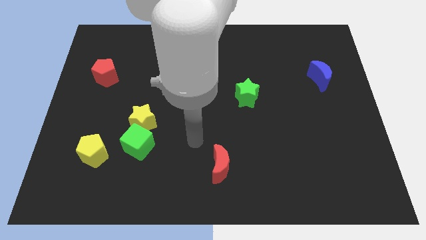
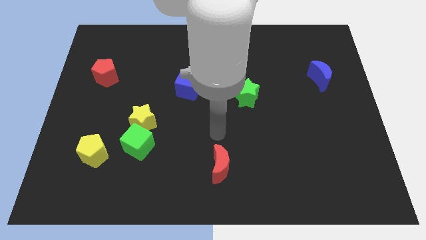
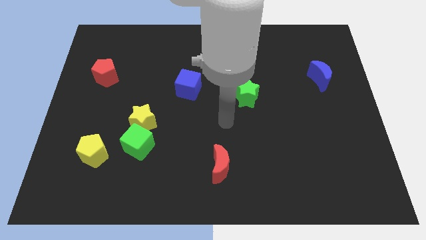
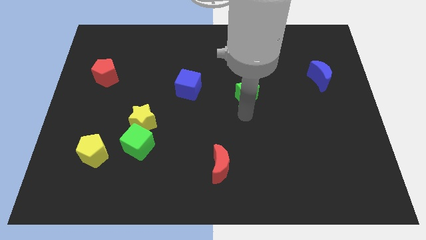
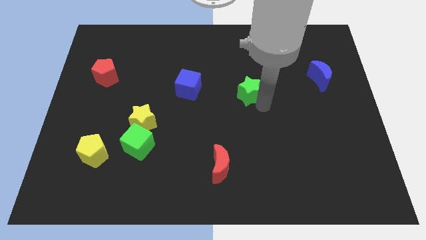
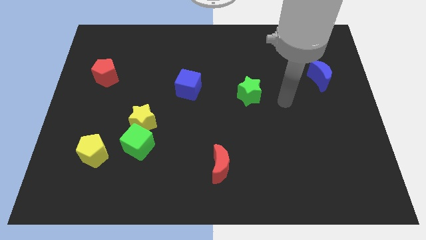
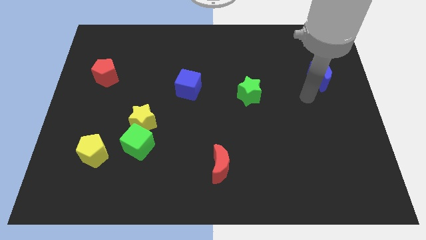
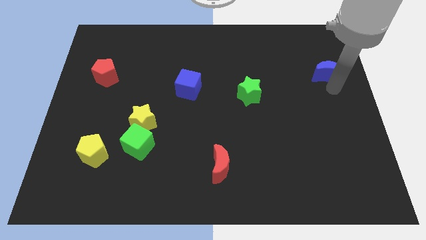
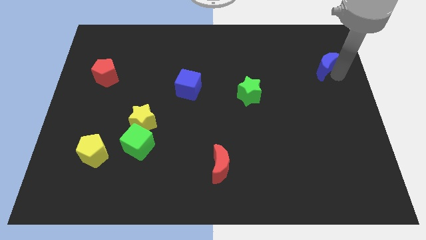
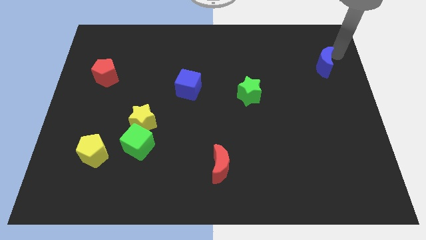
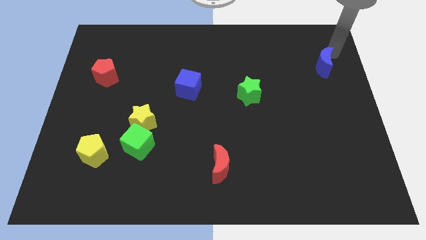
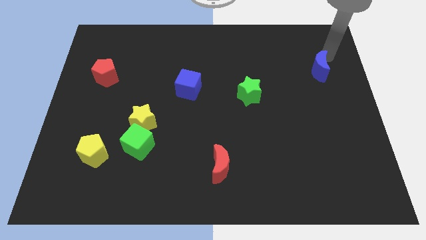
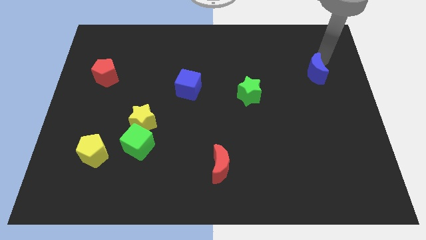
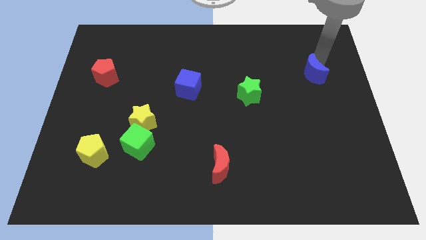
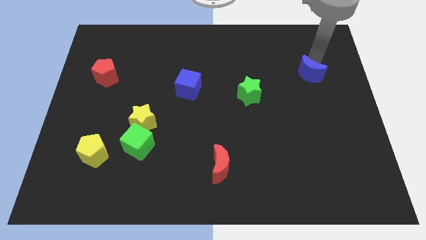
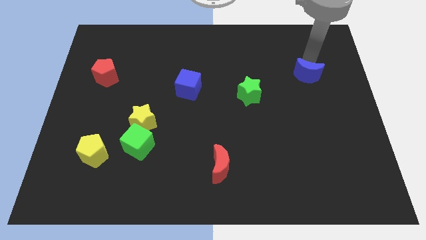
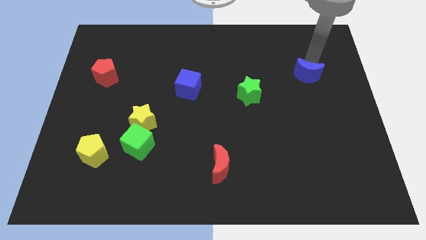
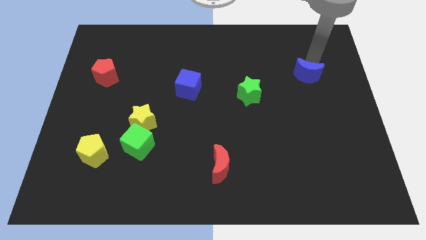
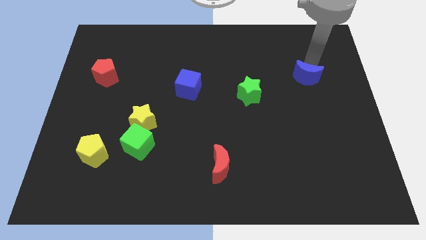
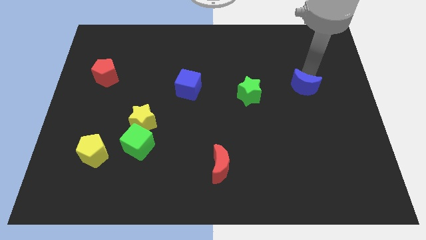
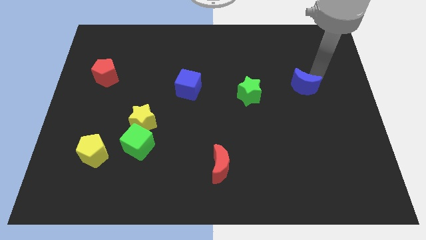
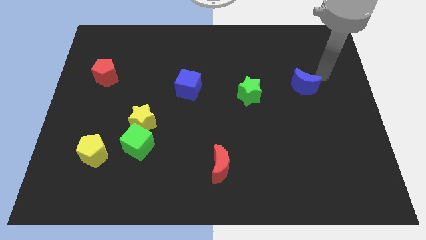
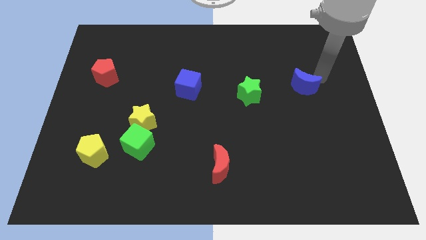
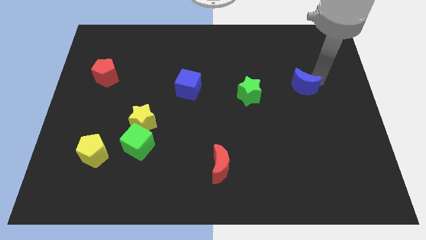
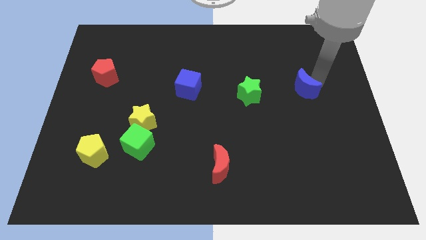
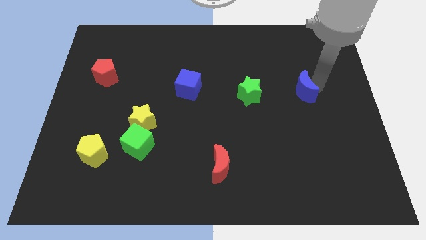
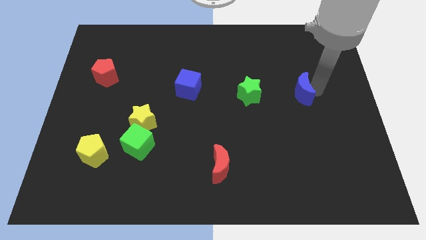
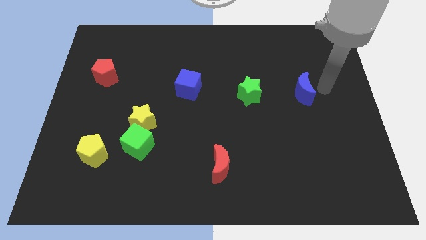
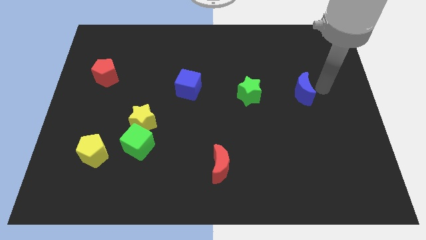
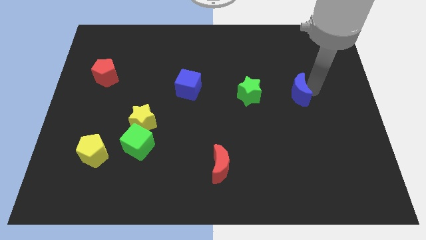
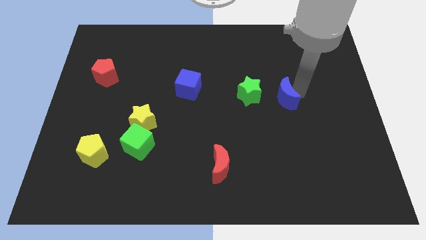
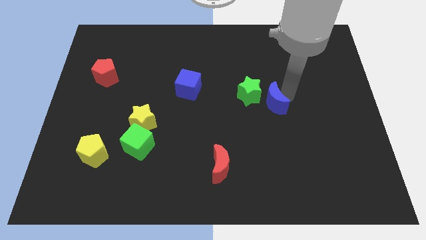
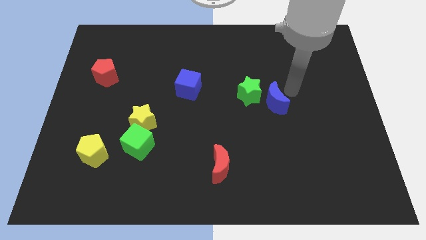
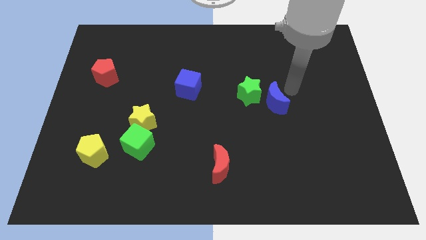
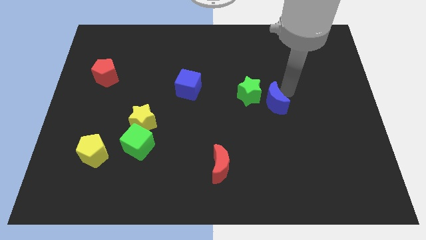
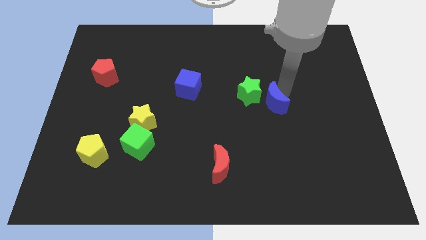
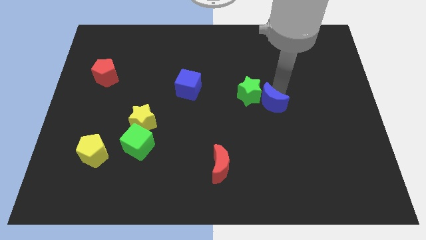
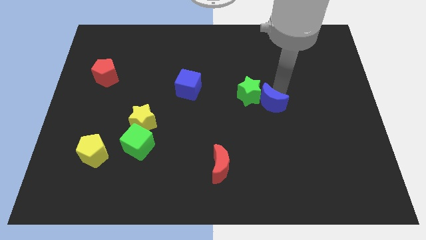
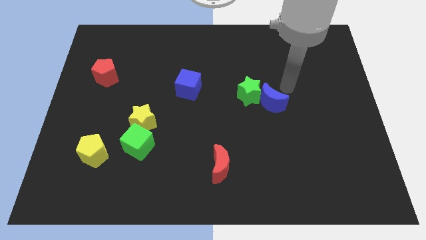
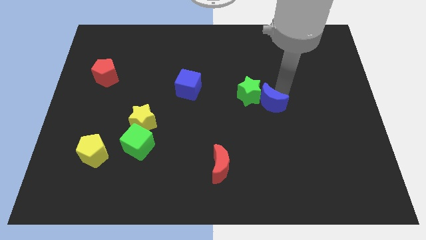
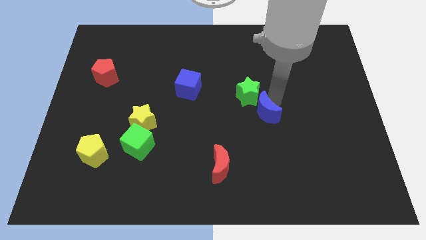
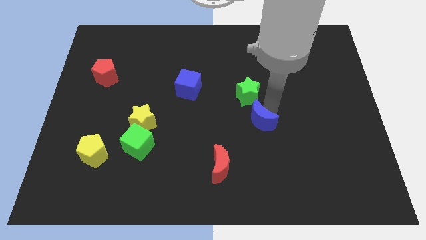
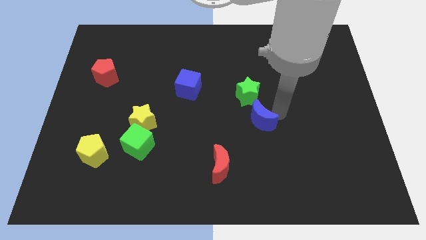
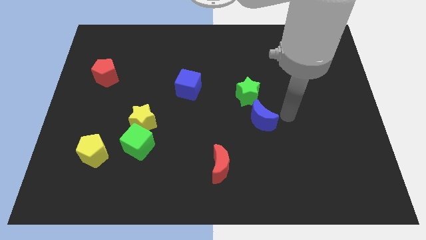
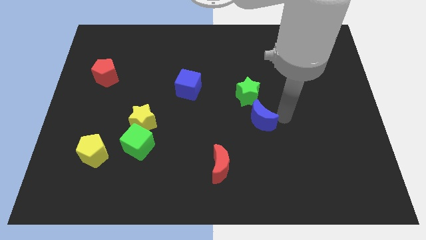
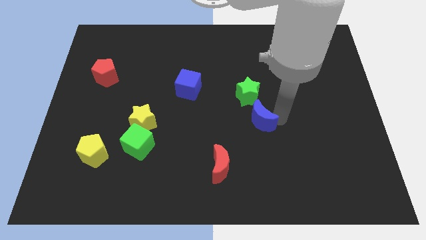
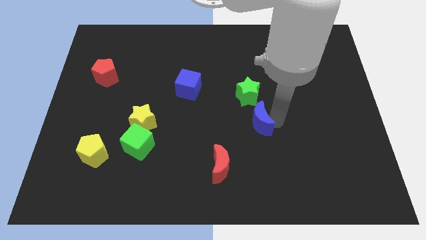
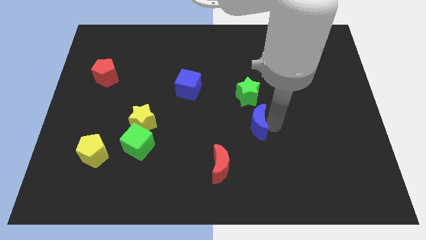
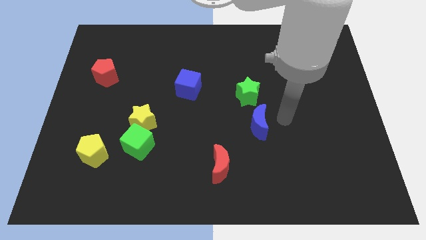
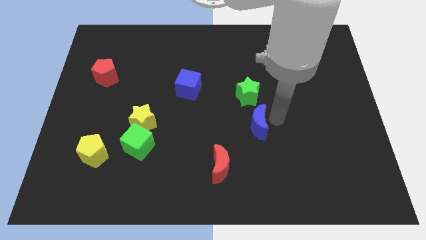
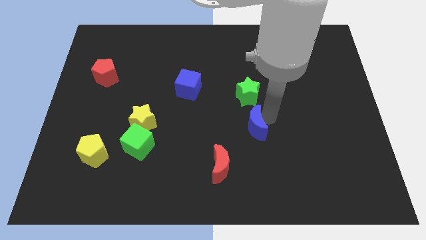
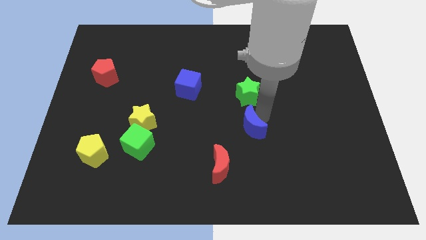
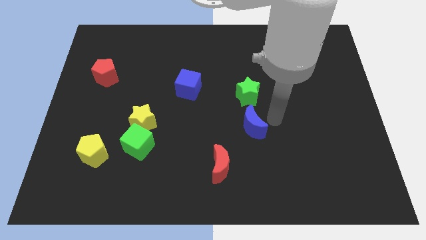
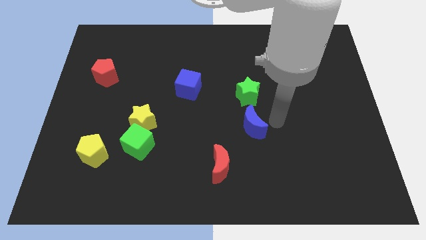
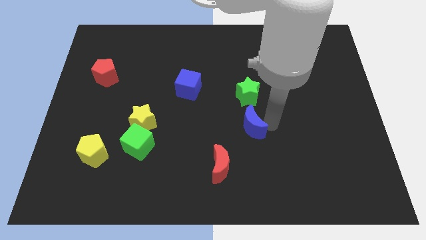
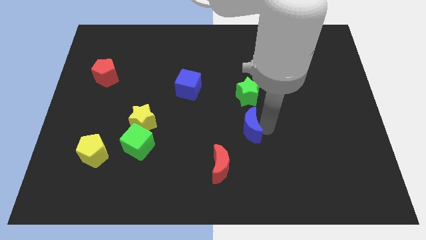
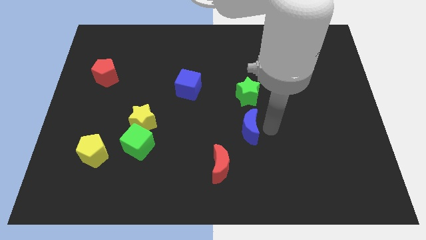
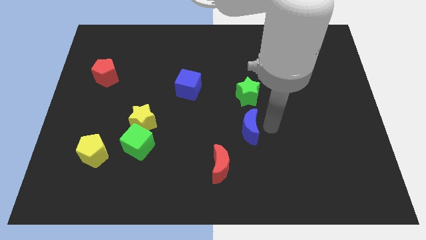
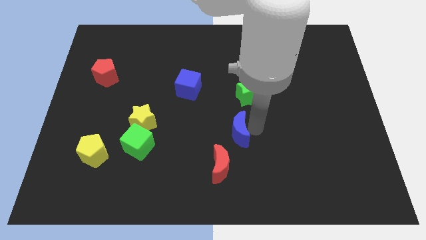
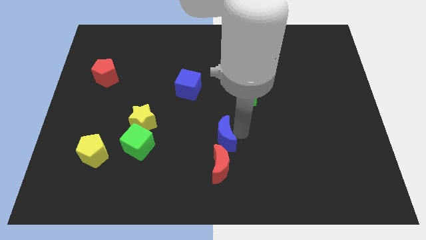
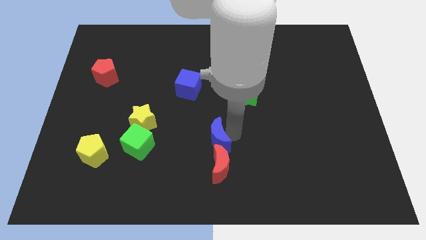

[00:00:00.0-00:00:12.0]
put the blue moon to the top left side of the red moon

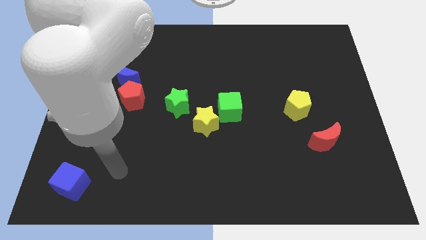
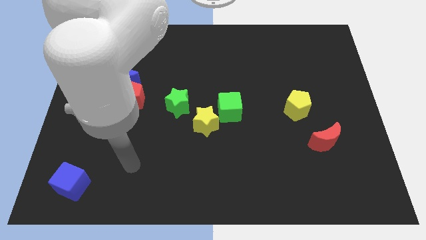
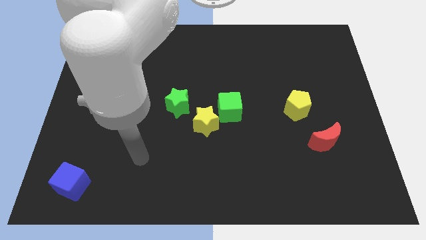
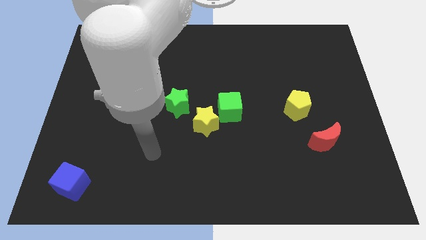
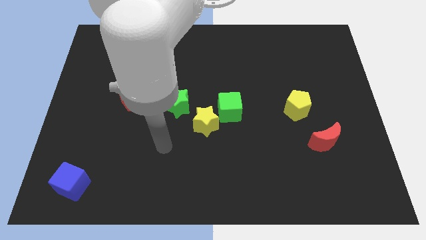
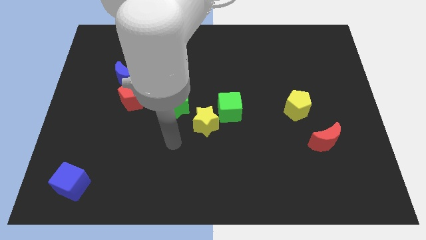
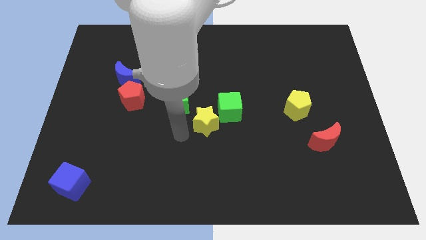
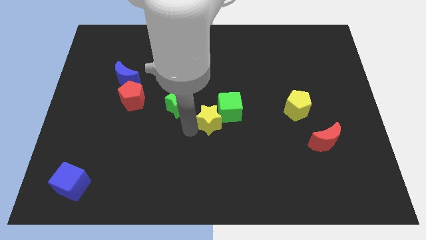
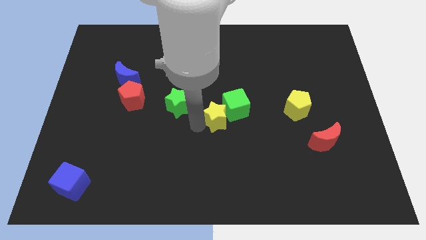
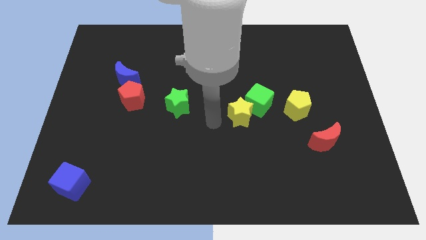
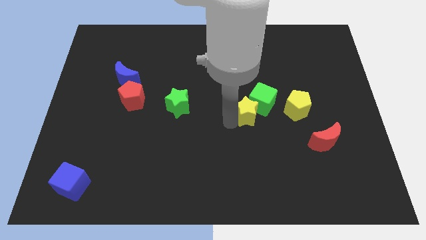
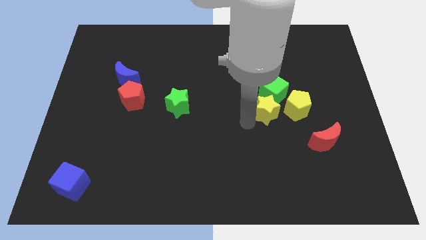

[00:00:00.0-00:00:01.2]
move the green cube to the top of the yellow pentagon

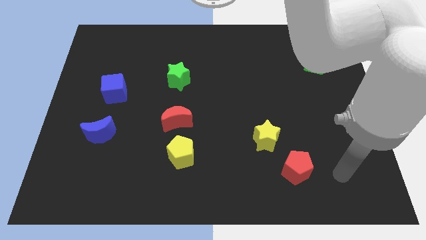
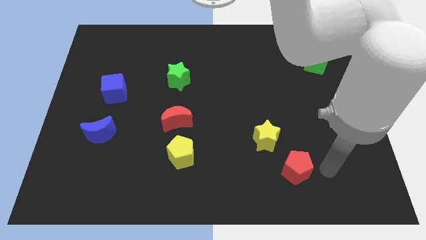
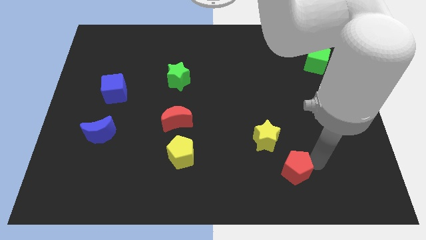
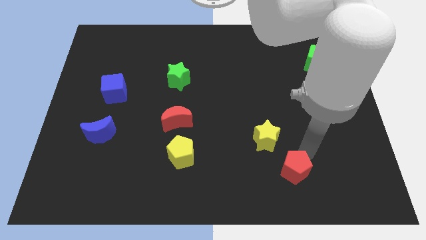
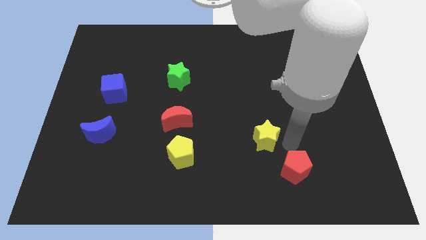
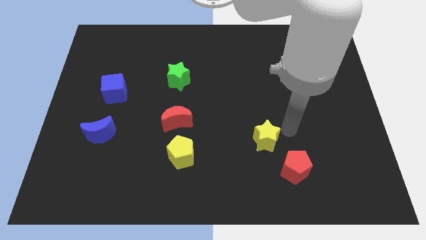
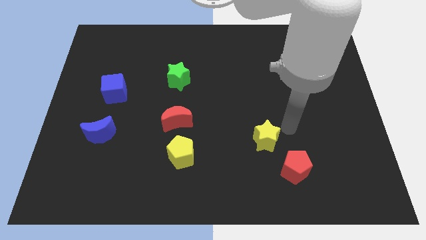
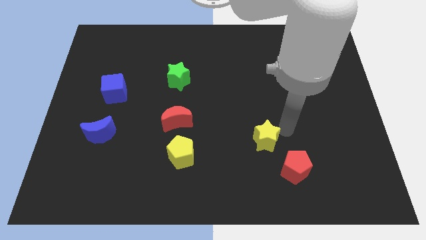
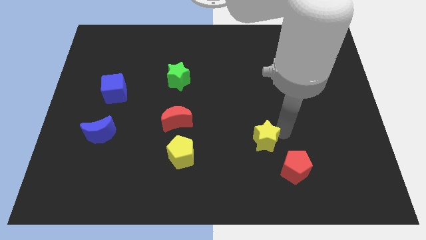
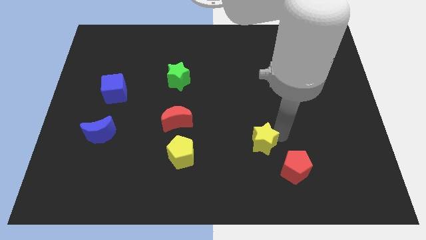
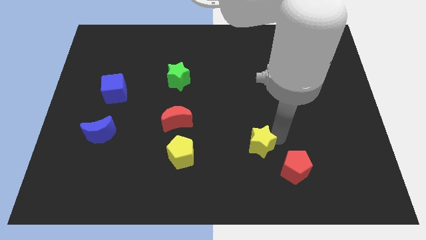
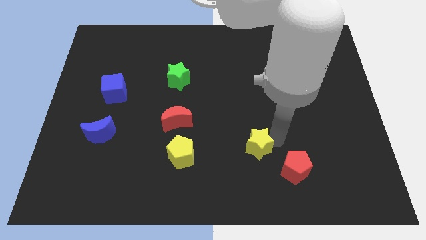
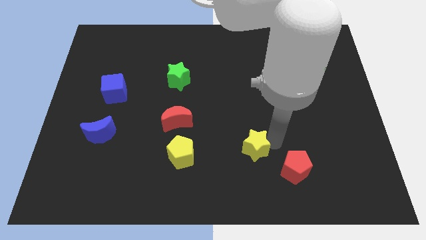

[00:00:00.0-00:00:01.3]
push the yellow star just right of the yellow pentagon
